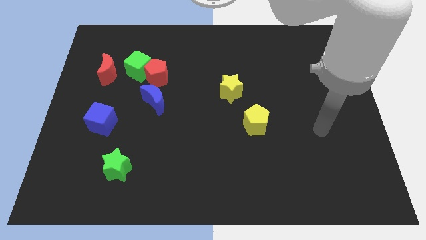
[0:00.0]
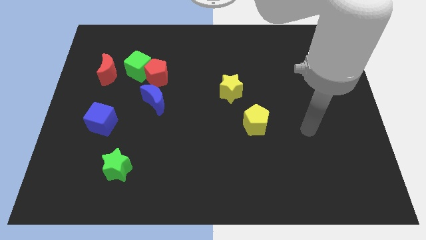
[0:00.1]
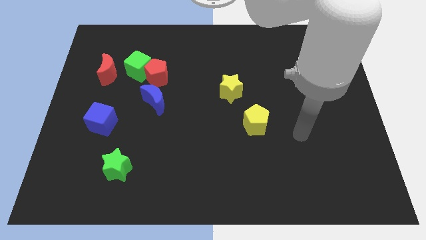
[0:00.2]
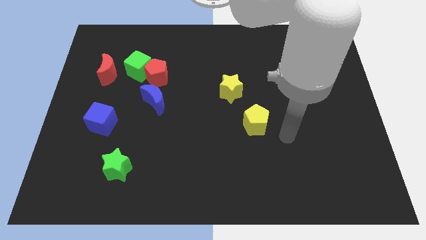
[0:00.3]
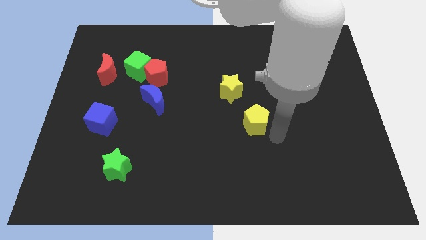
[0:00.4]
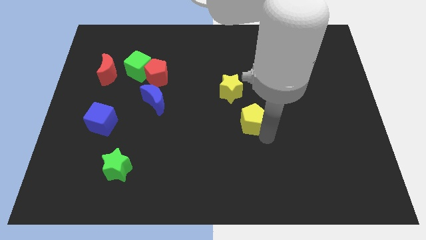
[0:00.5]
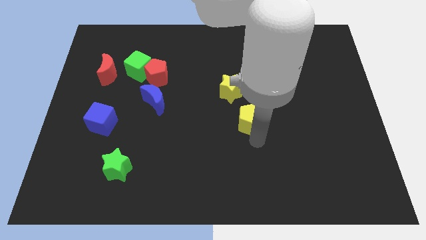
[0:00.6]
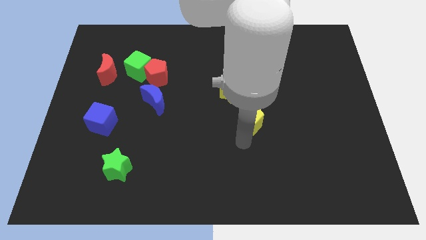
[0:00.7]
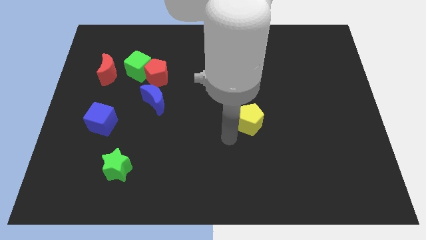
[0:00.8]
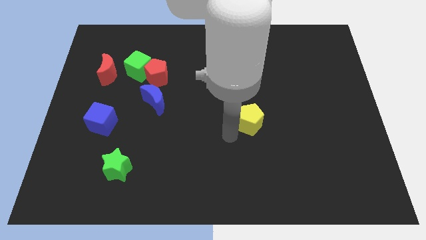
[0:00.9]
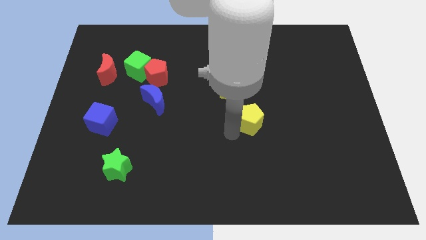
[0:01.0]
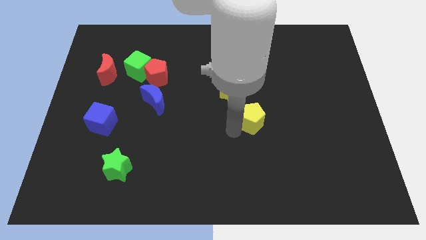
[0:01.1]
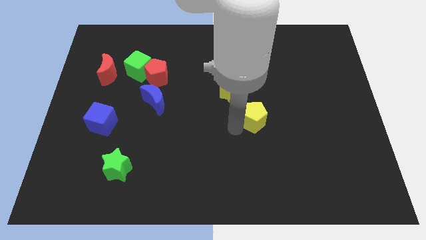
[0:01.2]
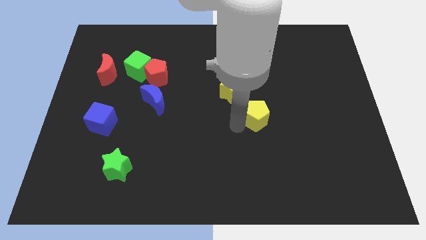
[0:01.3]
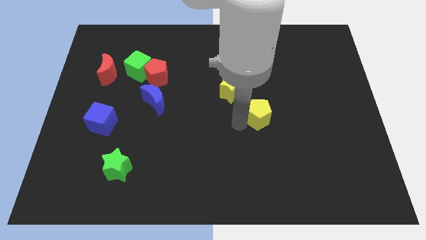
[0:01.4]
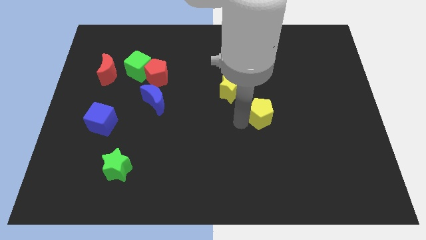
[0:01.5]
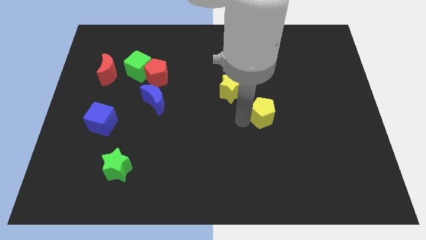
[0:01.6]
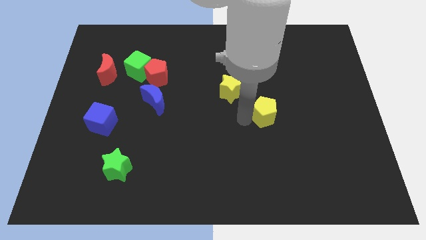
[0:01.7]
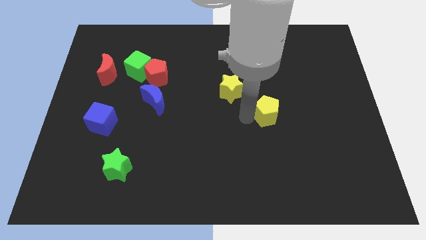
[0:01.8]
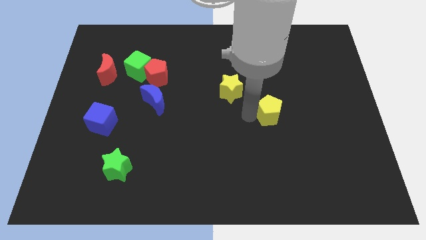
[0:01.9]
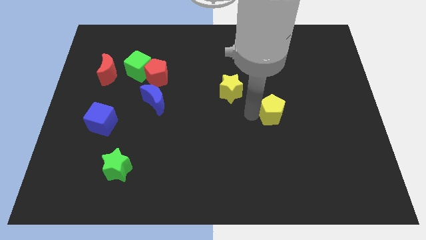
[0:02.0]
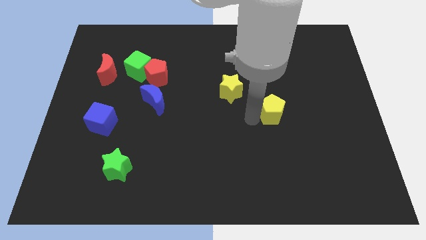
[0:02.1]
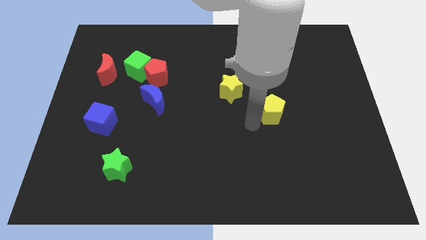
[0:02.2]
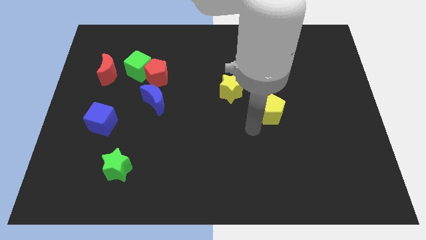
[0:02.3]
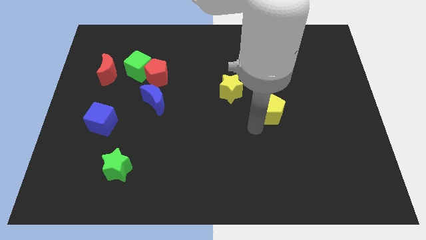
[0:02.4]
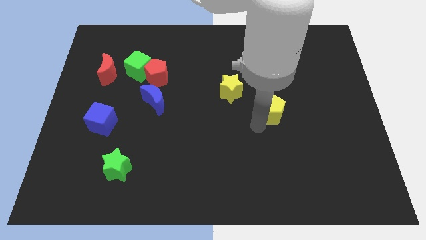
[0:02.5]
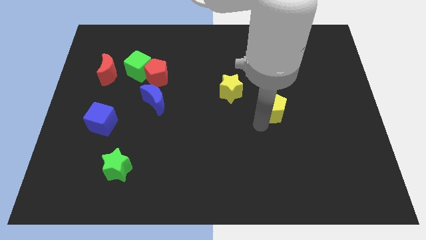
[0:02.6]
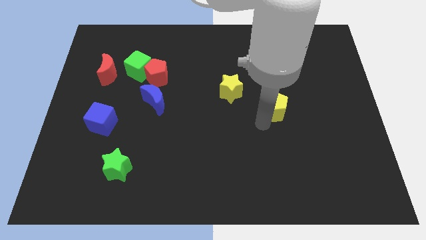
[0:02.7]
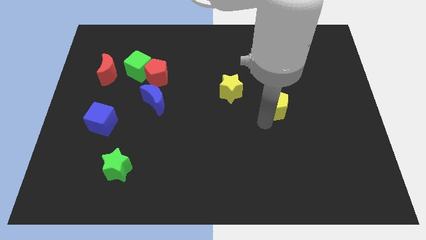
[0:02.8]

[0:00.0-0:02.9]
slightly slide the yellow pentagon up and right

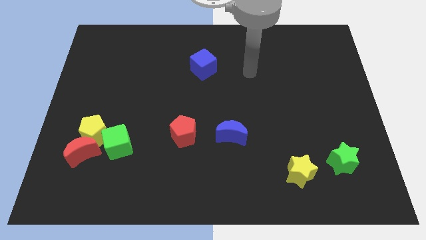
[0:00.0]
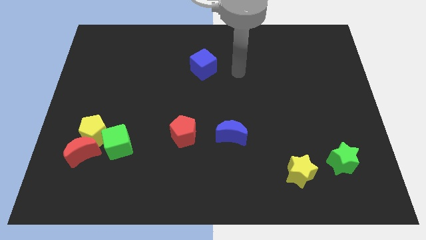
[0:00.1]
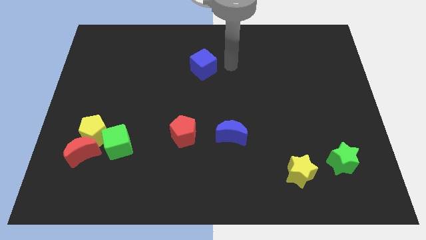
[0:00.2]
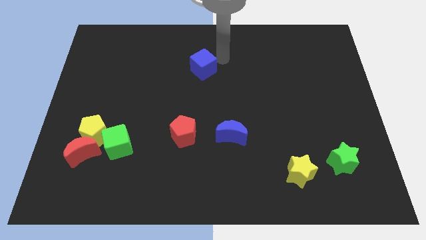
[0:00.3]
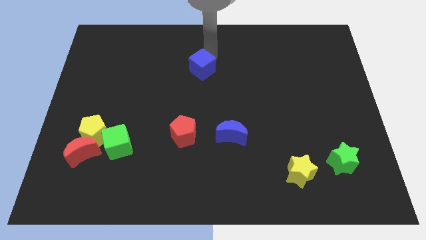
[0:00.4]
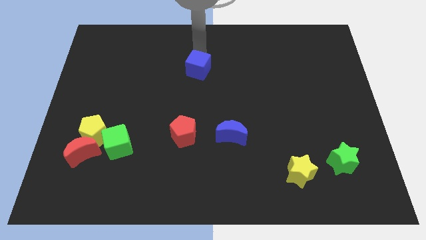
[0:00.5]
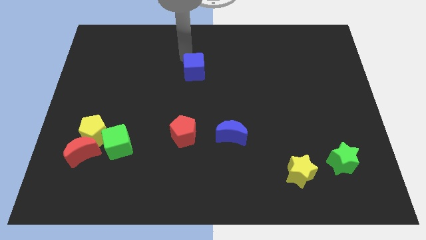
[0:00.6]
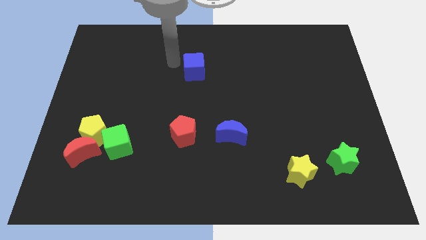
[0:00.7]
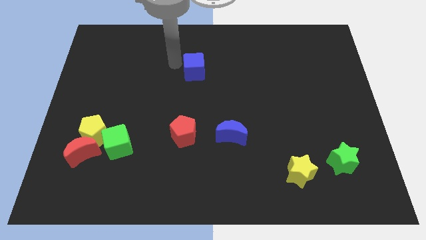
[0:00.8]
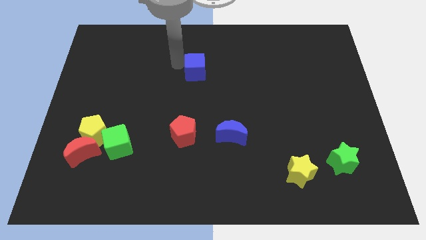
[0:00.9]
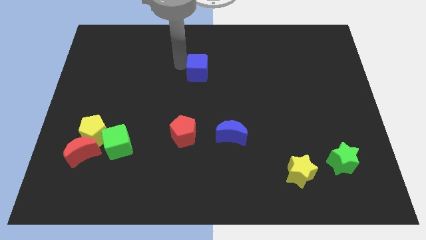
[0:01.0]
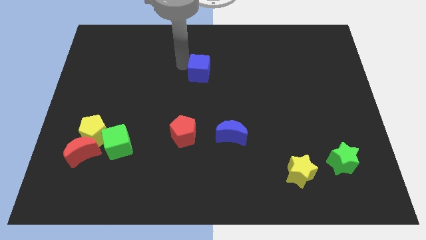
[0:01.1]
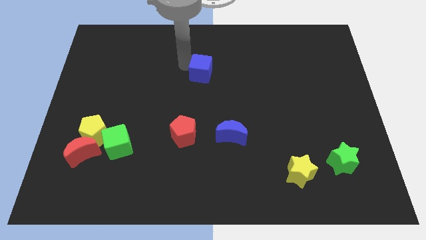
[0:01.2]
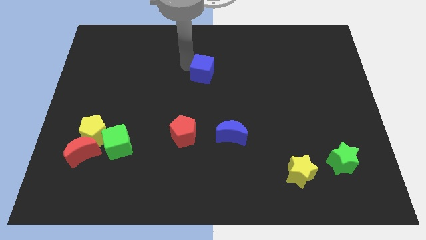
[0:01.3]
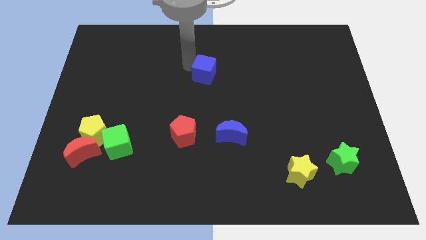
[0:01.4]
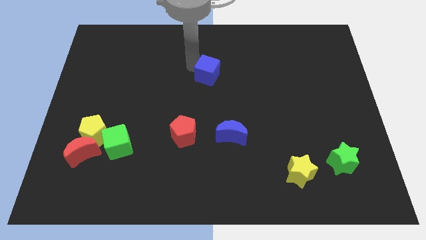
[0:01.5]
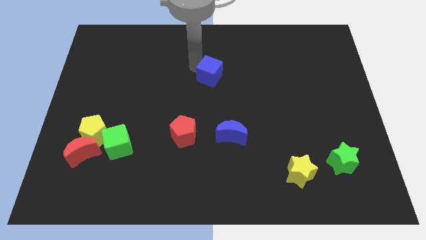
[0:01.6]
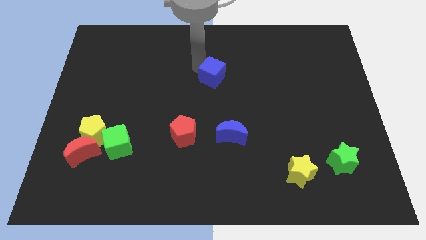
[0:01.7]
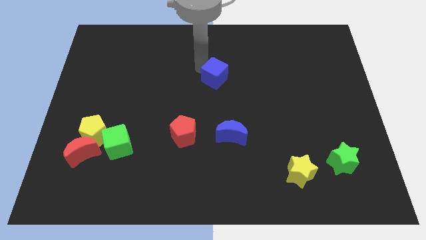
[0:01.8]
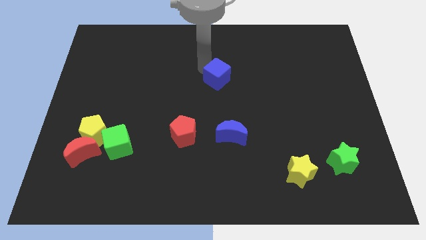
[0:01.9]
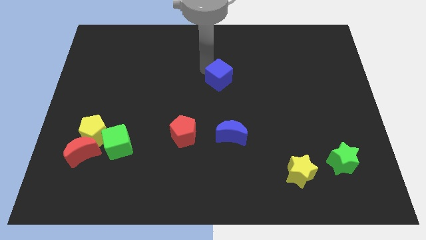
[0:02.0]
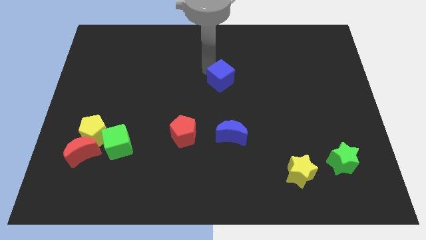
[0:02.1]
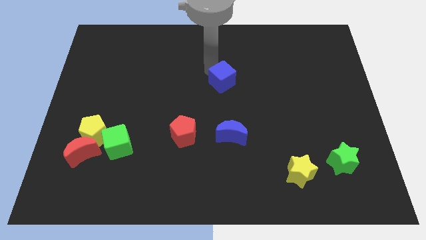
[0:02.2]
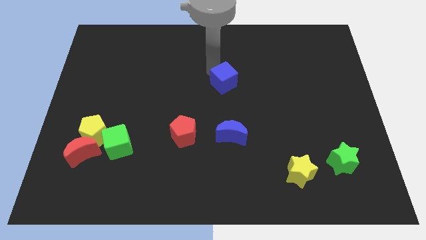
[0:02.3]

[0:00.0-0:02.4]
slide the blue cube a little bit diagonally downwards and right

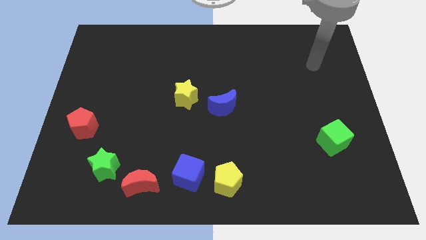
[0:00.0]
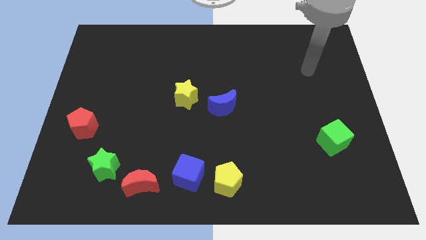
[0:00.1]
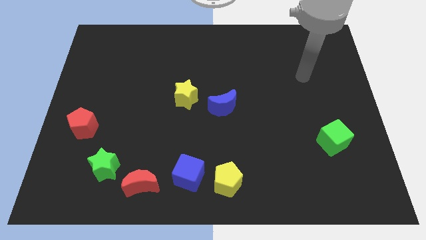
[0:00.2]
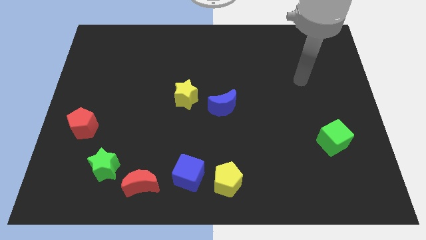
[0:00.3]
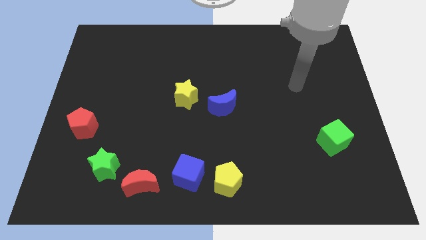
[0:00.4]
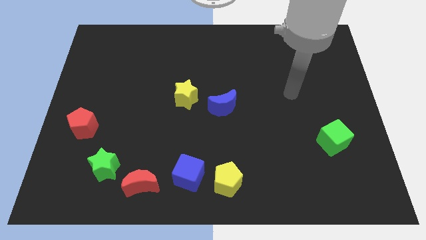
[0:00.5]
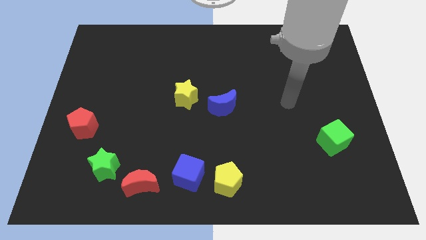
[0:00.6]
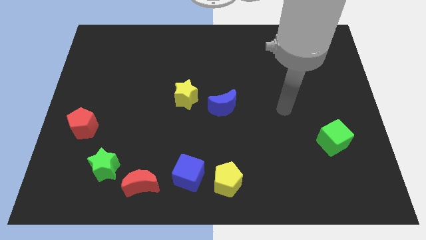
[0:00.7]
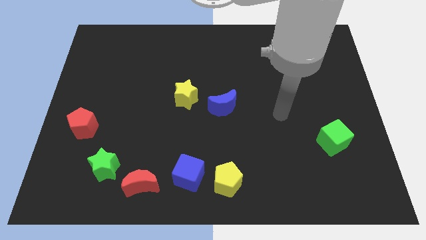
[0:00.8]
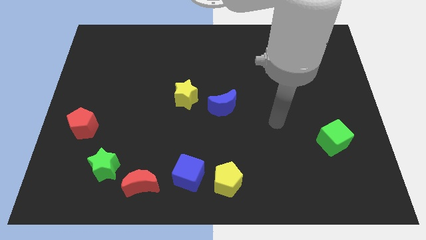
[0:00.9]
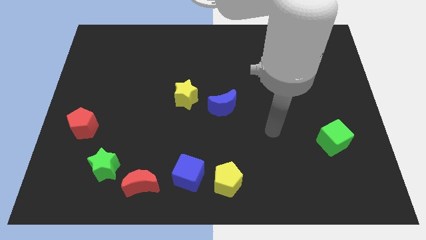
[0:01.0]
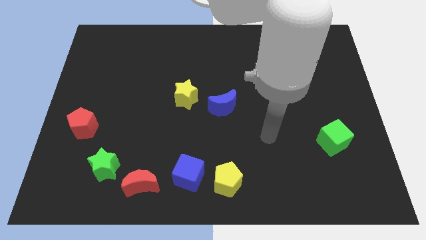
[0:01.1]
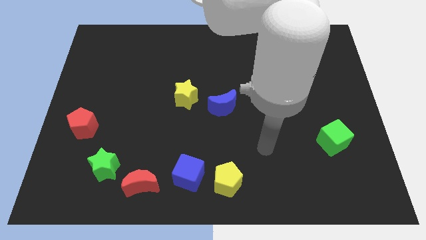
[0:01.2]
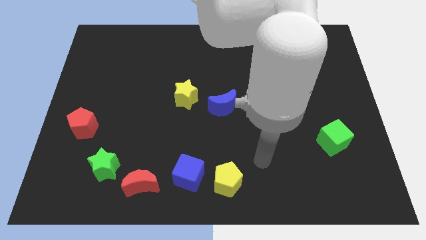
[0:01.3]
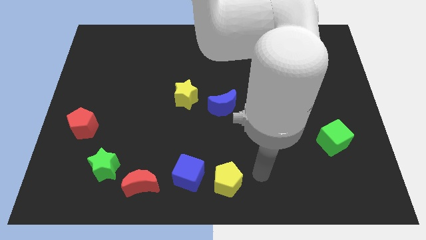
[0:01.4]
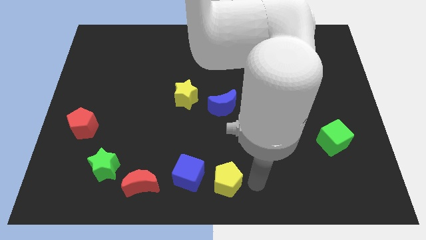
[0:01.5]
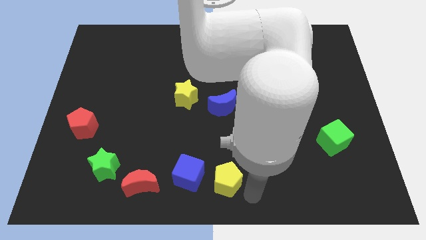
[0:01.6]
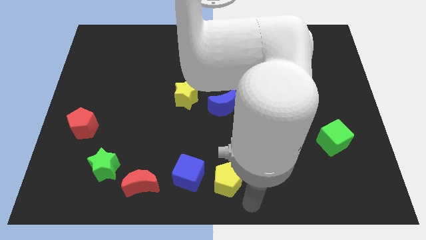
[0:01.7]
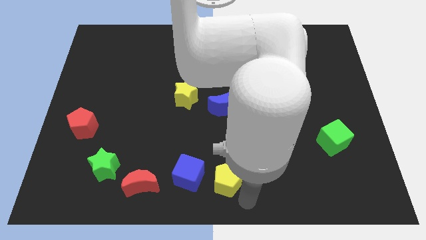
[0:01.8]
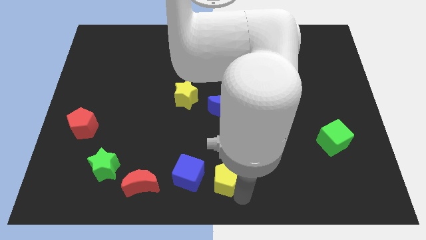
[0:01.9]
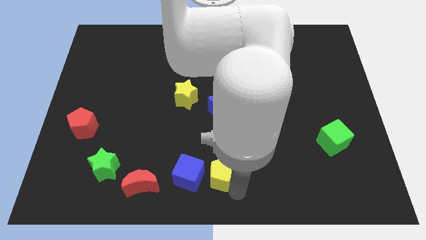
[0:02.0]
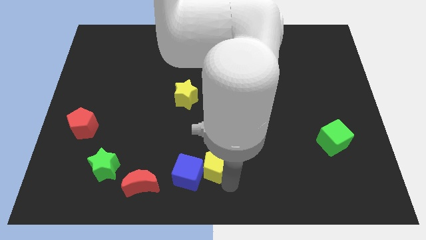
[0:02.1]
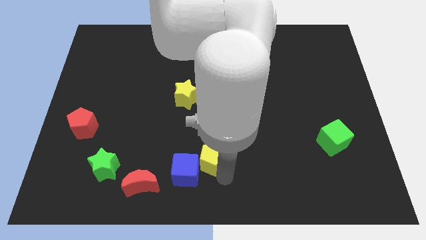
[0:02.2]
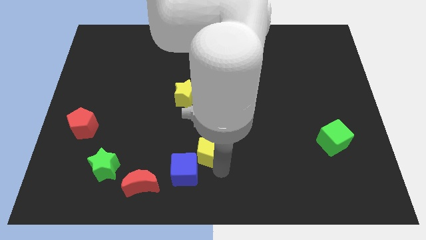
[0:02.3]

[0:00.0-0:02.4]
slightly slide the yellow pentagon diagonally up and to the left
